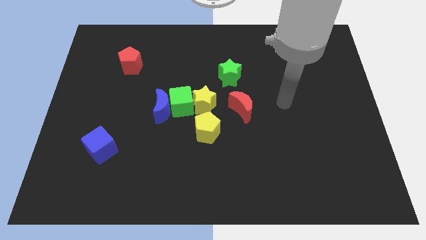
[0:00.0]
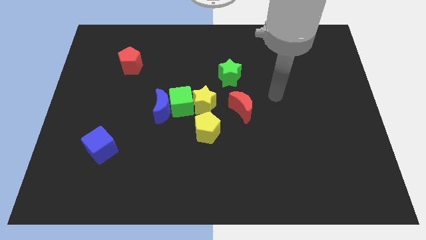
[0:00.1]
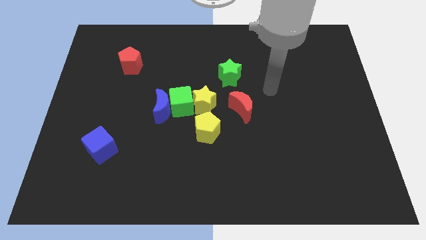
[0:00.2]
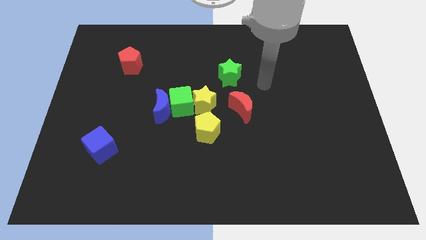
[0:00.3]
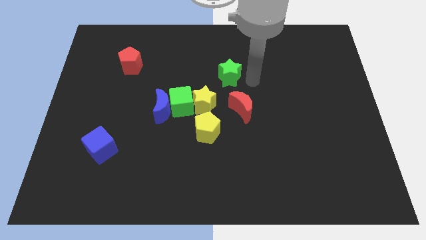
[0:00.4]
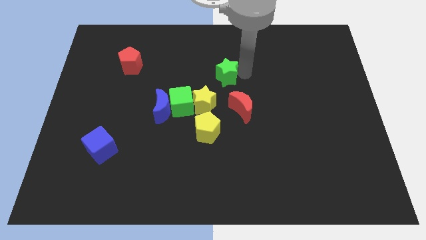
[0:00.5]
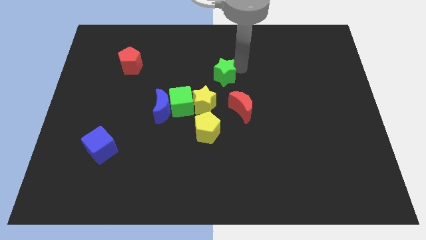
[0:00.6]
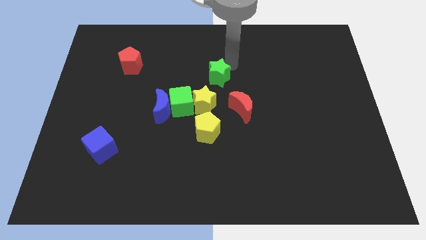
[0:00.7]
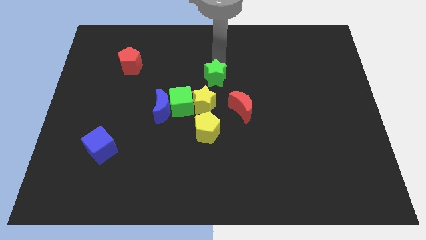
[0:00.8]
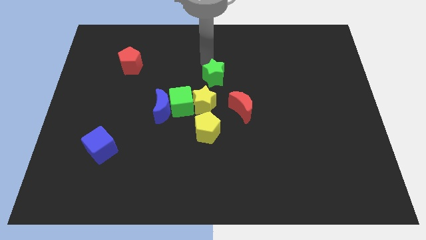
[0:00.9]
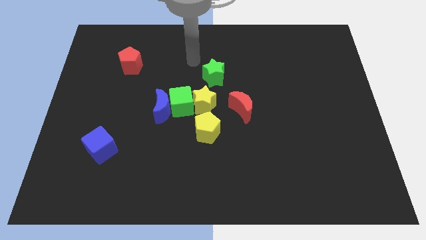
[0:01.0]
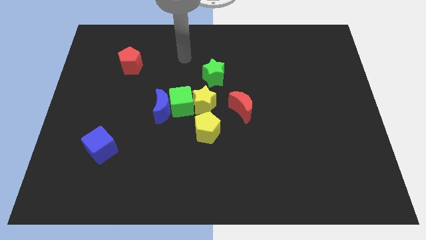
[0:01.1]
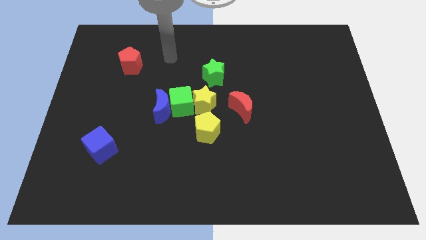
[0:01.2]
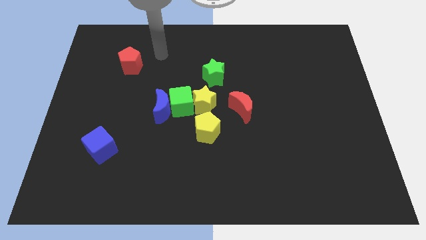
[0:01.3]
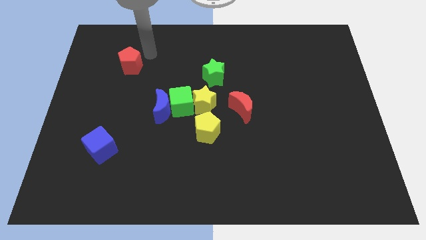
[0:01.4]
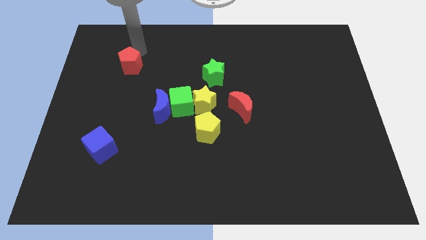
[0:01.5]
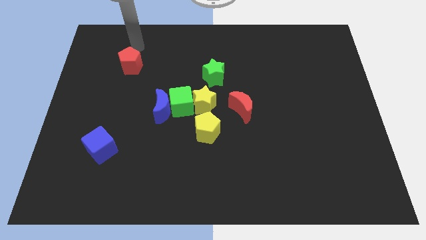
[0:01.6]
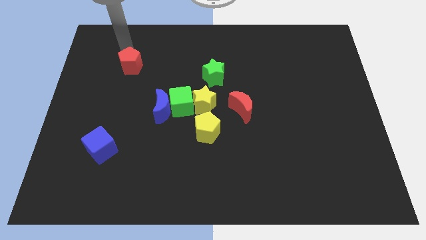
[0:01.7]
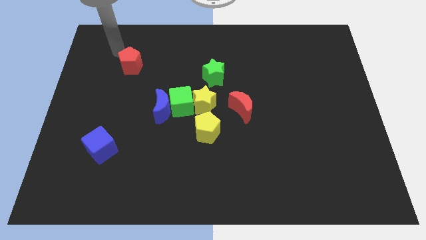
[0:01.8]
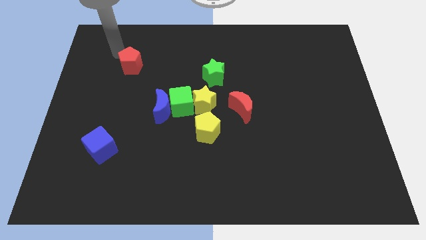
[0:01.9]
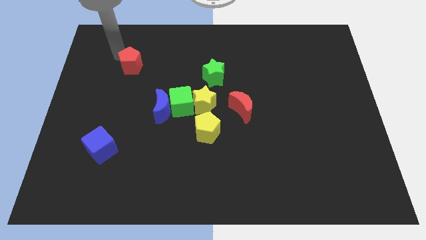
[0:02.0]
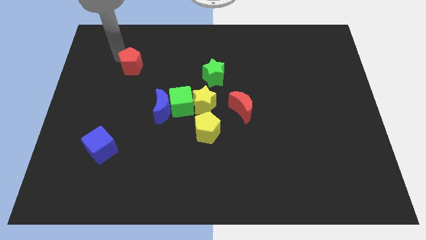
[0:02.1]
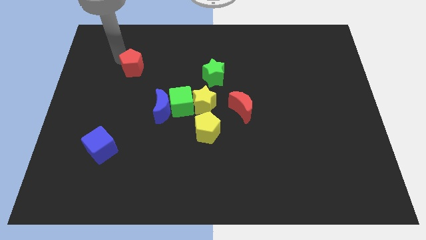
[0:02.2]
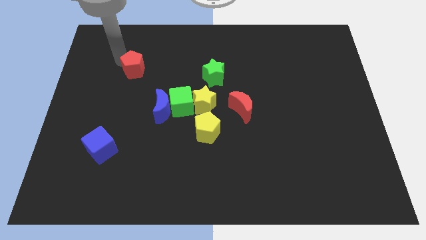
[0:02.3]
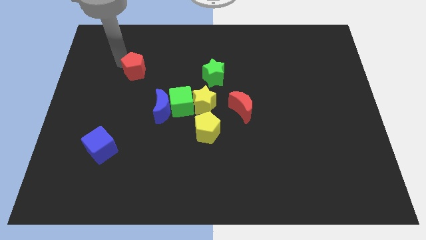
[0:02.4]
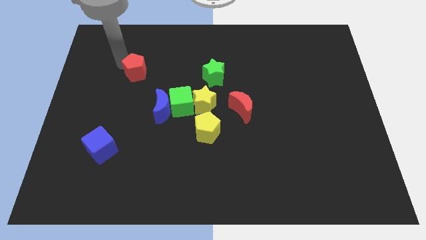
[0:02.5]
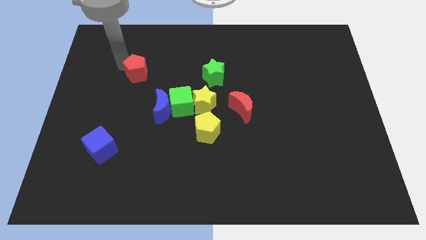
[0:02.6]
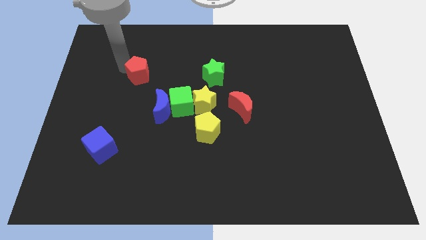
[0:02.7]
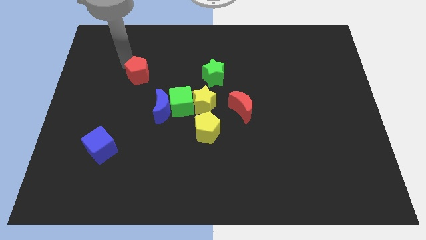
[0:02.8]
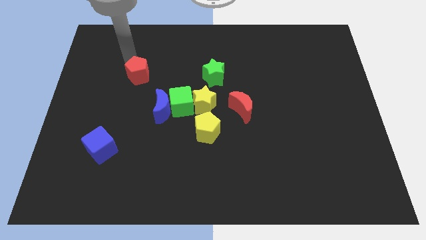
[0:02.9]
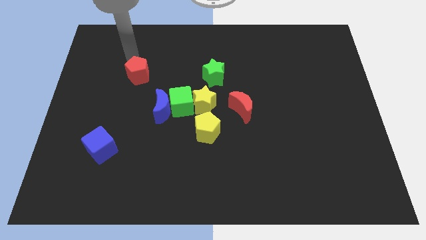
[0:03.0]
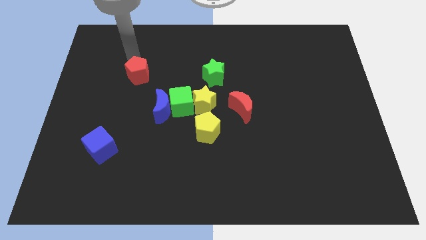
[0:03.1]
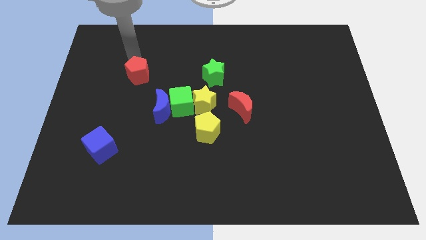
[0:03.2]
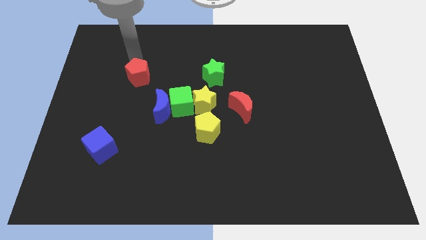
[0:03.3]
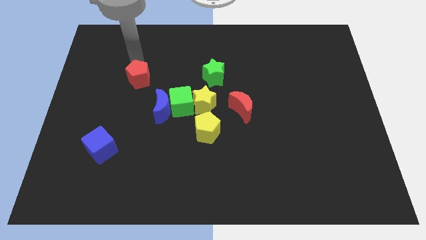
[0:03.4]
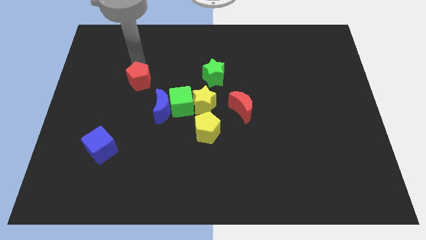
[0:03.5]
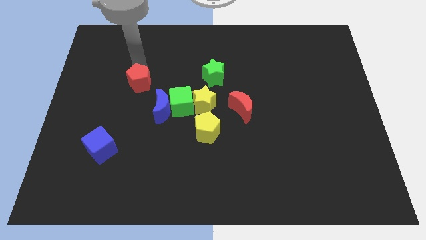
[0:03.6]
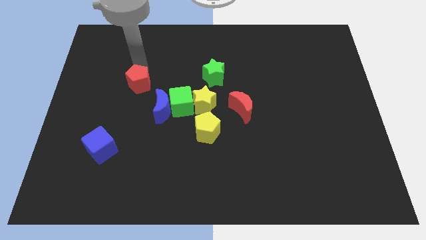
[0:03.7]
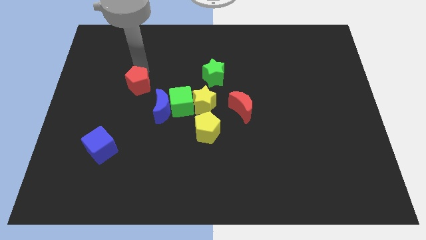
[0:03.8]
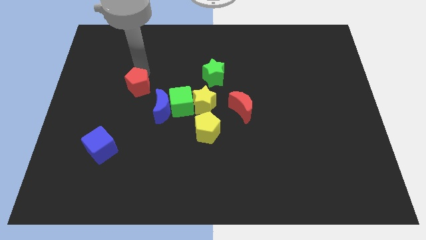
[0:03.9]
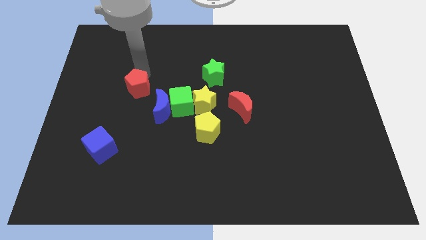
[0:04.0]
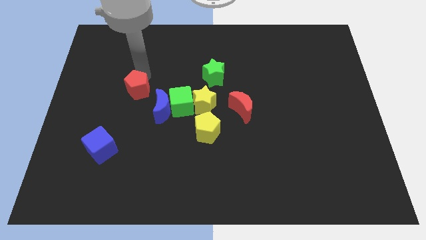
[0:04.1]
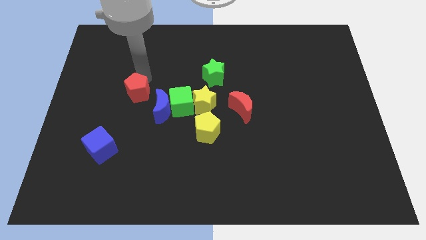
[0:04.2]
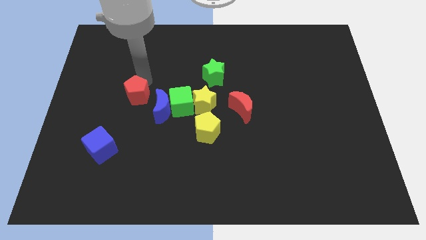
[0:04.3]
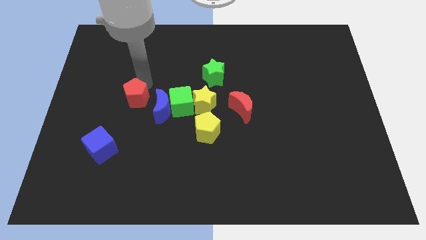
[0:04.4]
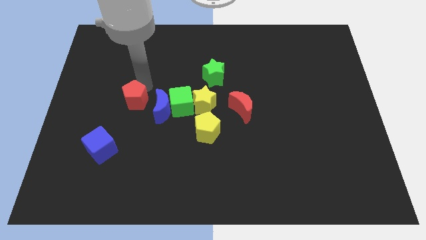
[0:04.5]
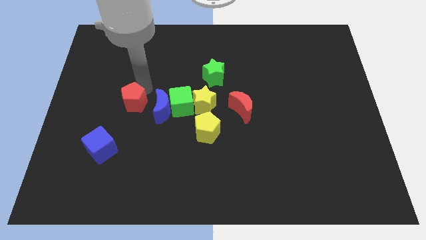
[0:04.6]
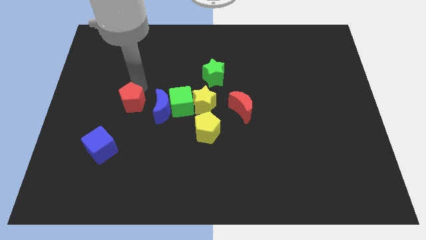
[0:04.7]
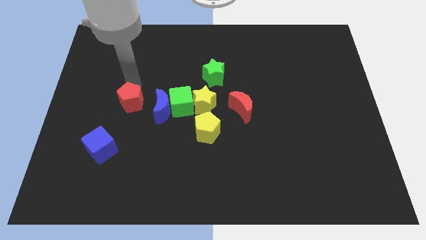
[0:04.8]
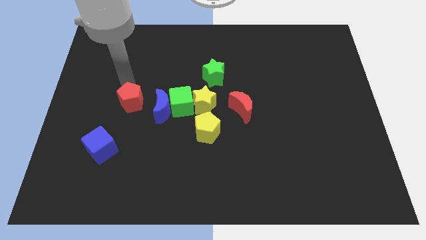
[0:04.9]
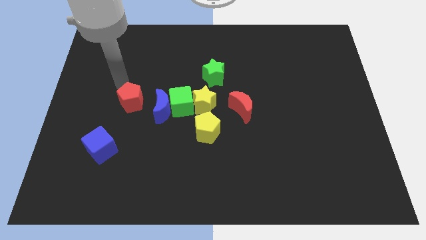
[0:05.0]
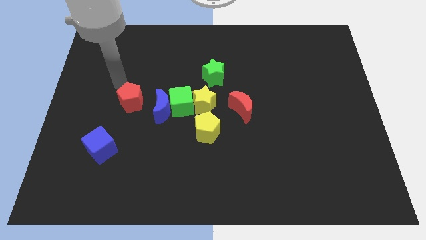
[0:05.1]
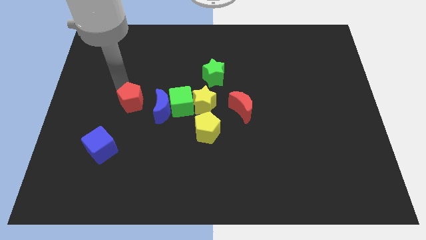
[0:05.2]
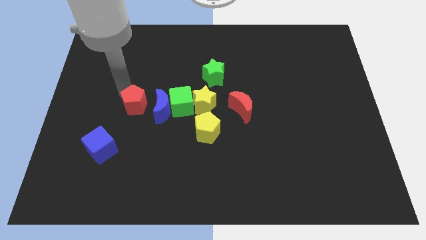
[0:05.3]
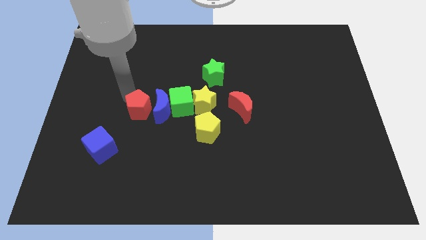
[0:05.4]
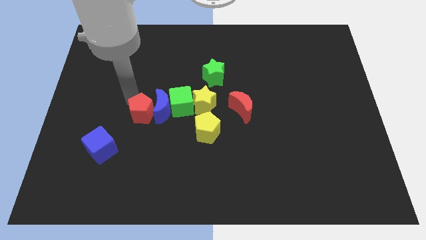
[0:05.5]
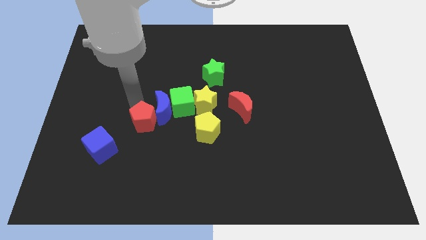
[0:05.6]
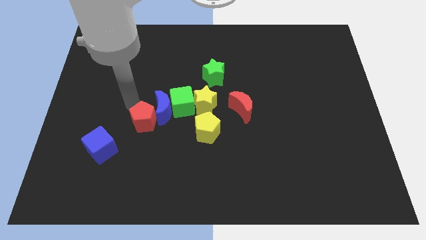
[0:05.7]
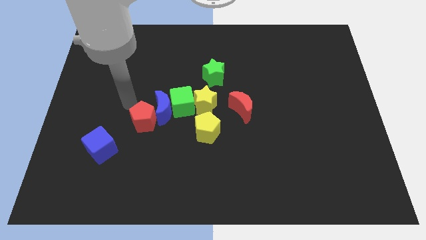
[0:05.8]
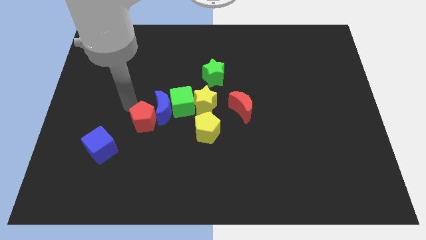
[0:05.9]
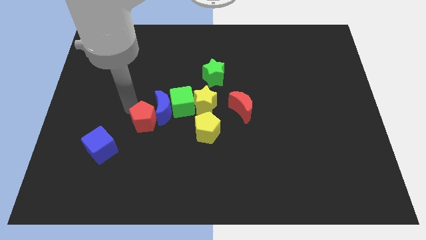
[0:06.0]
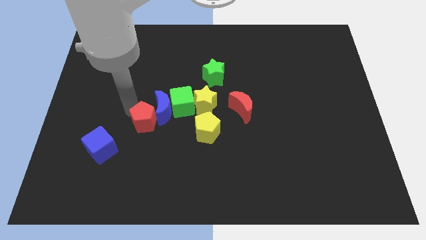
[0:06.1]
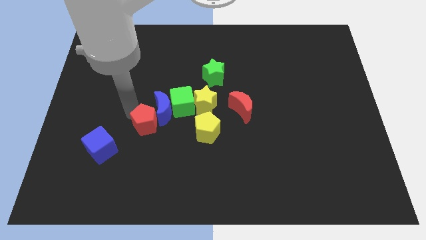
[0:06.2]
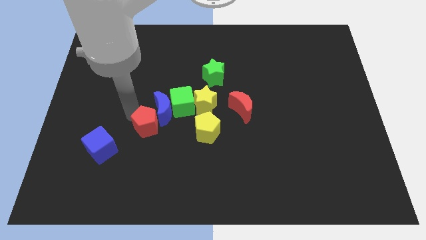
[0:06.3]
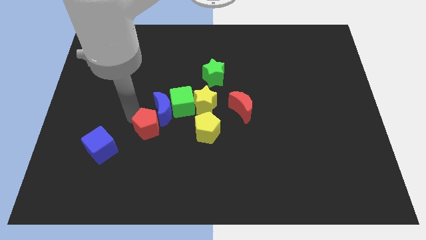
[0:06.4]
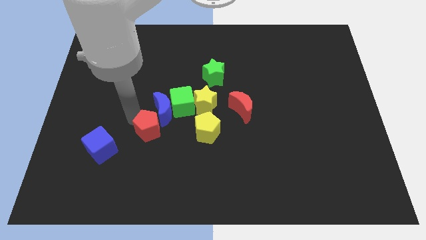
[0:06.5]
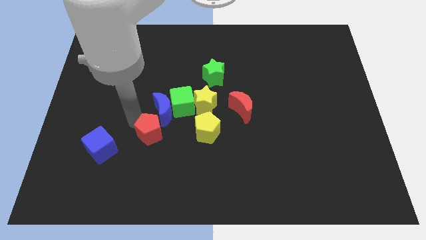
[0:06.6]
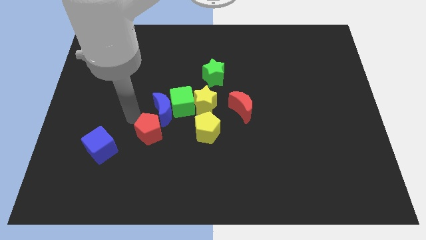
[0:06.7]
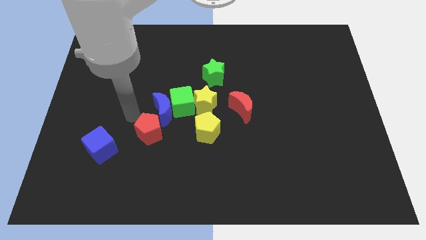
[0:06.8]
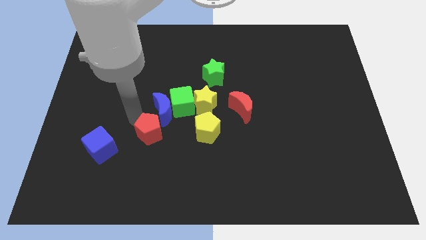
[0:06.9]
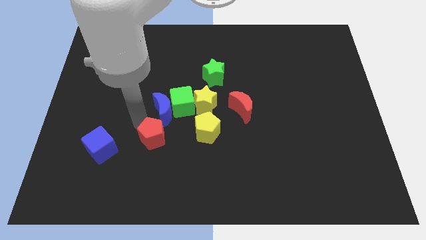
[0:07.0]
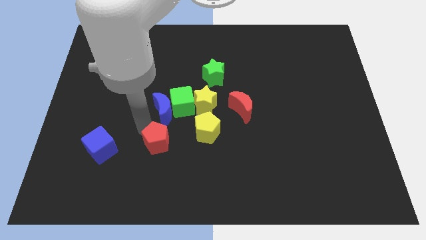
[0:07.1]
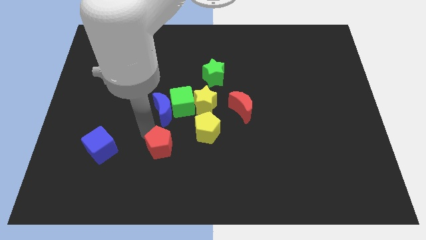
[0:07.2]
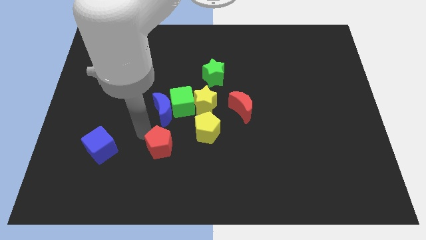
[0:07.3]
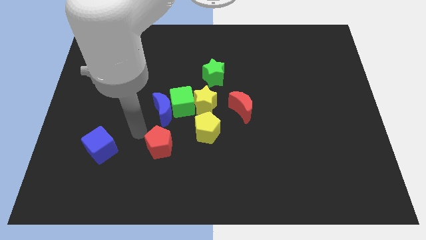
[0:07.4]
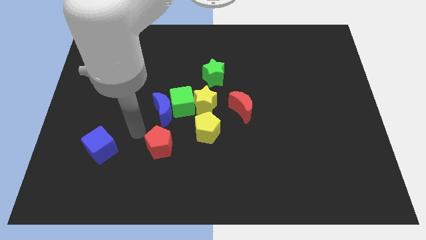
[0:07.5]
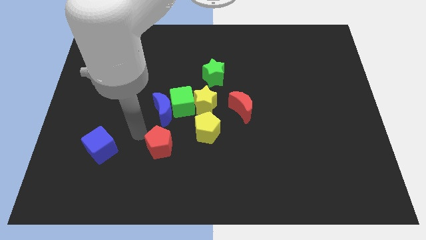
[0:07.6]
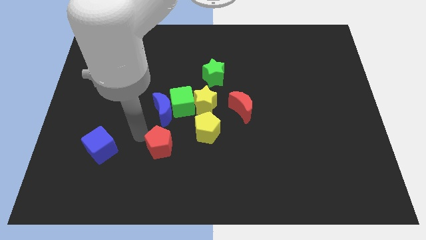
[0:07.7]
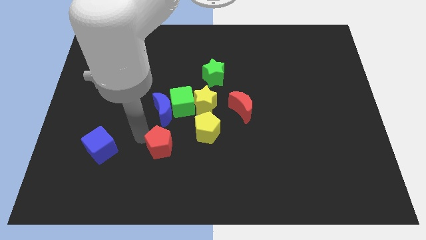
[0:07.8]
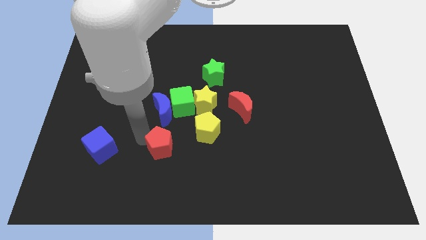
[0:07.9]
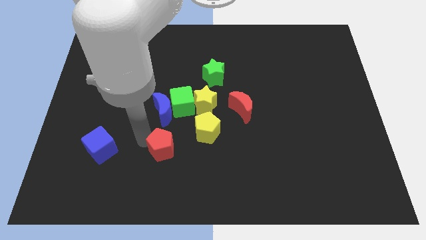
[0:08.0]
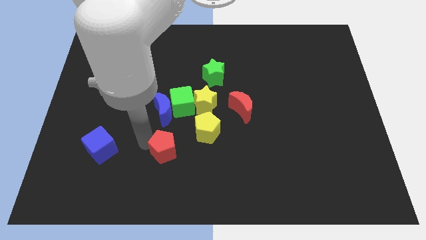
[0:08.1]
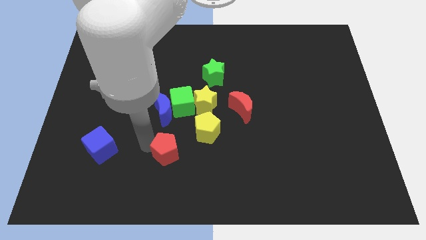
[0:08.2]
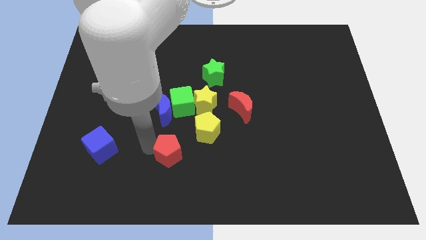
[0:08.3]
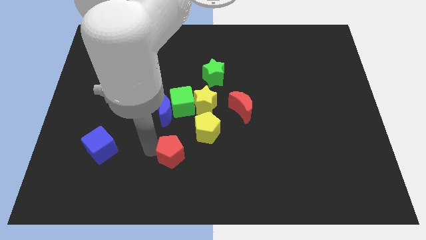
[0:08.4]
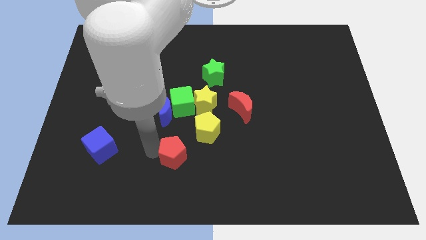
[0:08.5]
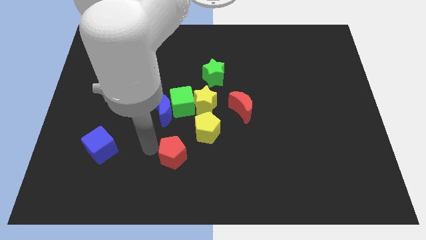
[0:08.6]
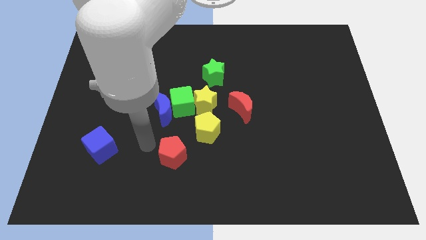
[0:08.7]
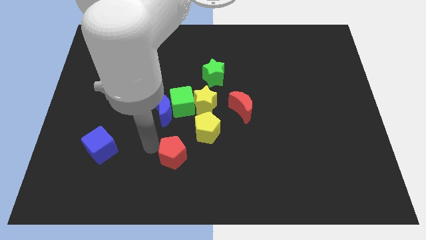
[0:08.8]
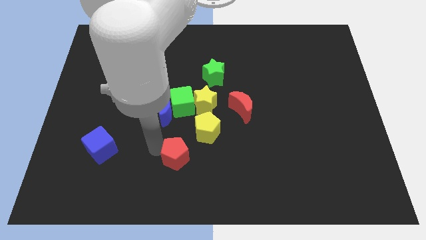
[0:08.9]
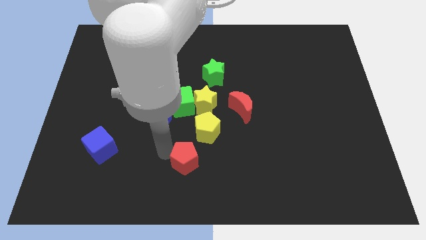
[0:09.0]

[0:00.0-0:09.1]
slide the red pentagon to the bottom side of the yellow pentagon
